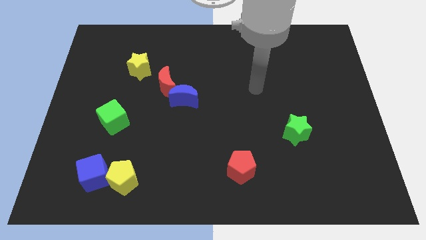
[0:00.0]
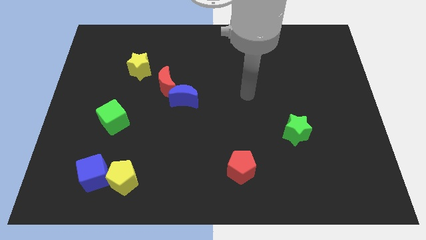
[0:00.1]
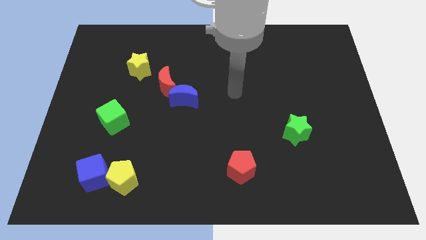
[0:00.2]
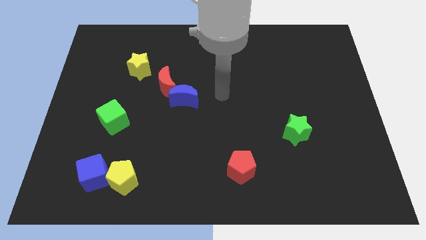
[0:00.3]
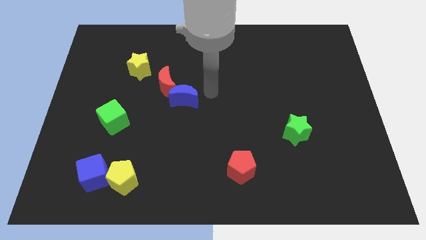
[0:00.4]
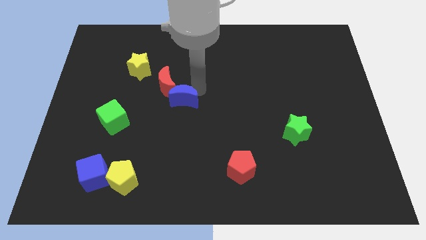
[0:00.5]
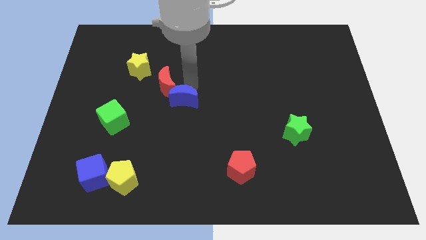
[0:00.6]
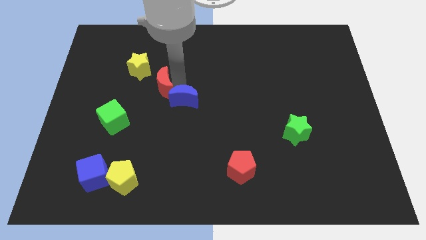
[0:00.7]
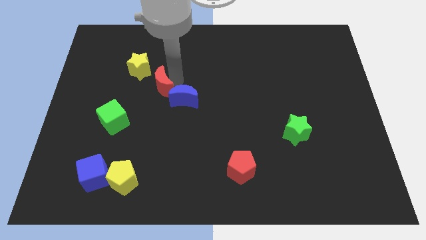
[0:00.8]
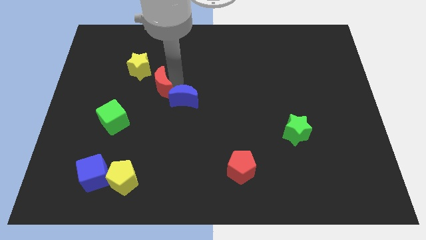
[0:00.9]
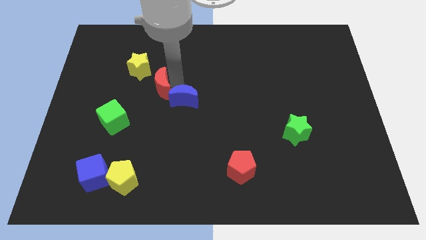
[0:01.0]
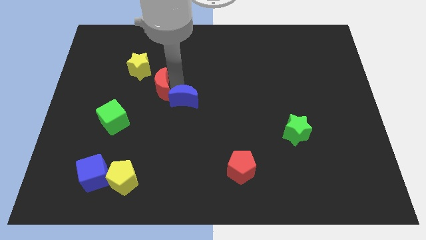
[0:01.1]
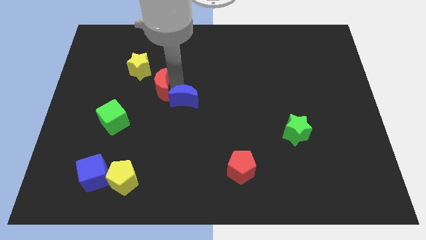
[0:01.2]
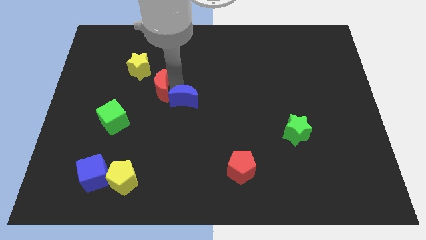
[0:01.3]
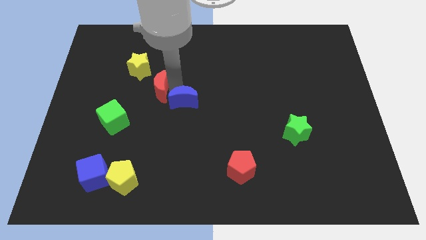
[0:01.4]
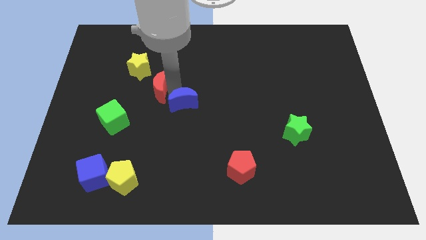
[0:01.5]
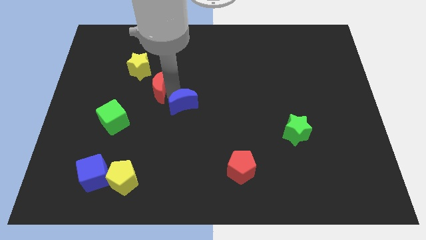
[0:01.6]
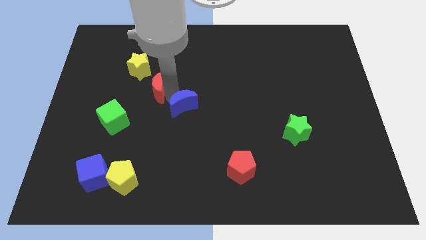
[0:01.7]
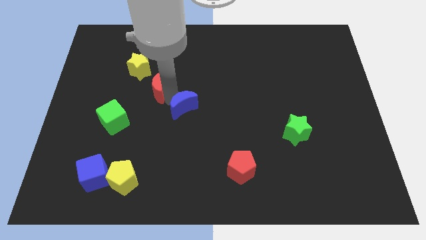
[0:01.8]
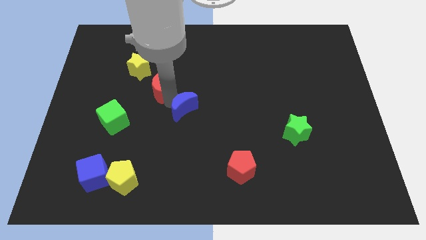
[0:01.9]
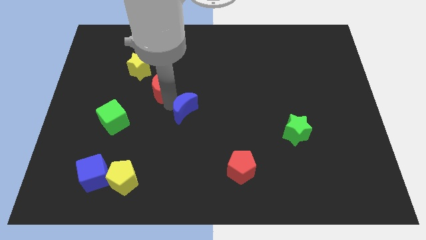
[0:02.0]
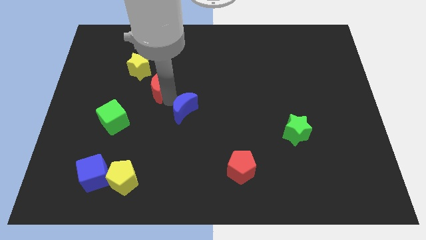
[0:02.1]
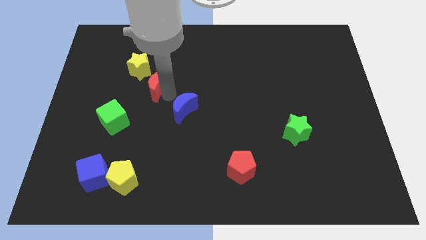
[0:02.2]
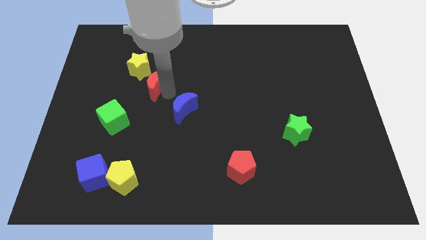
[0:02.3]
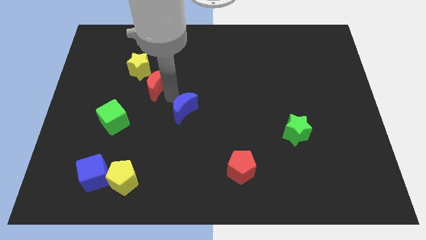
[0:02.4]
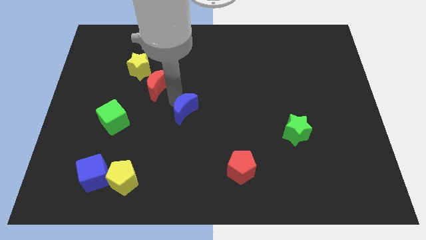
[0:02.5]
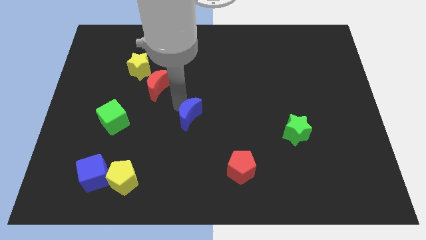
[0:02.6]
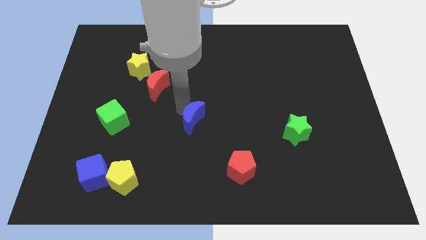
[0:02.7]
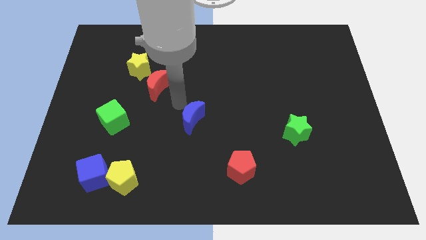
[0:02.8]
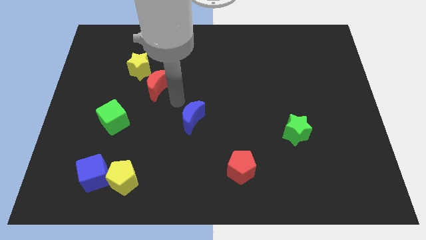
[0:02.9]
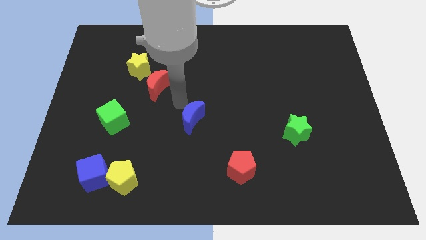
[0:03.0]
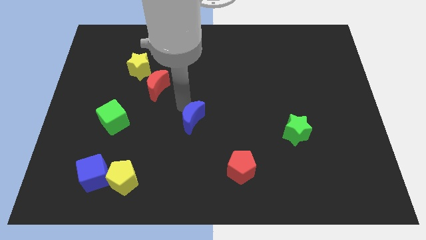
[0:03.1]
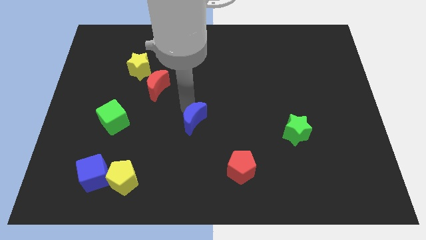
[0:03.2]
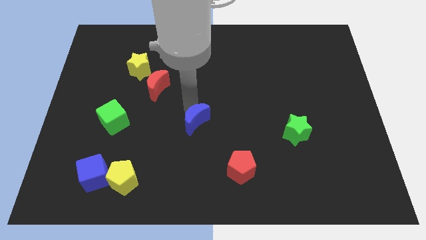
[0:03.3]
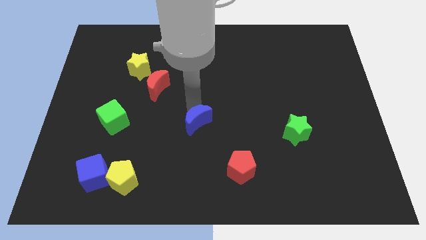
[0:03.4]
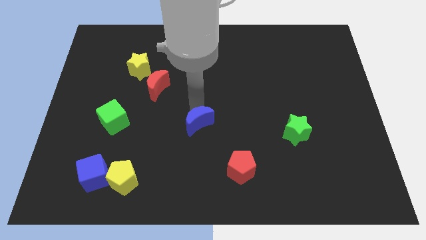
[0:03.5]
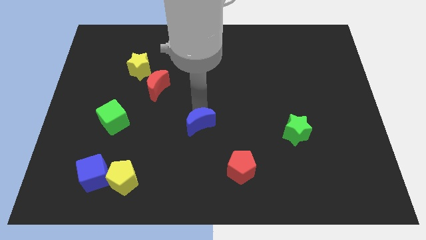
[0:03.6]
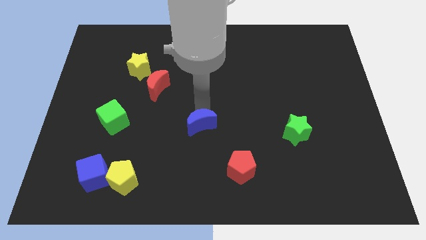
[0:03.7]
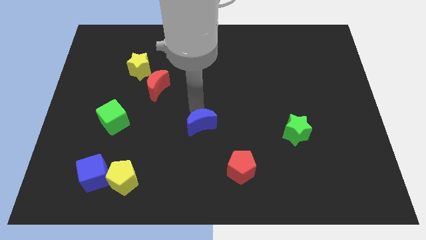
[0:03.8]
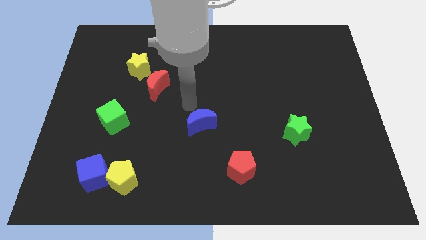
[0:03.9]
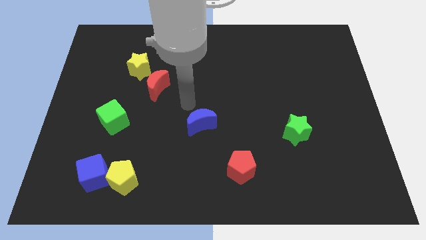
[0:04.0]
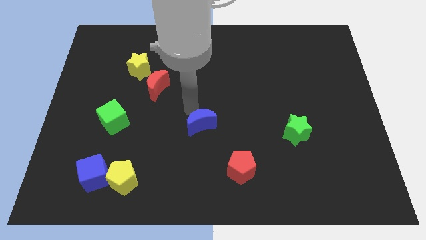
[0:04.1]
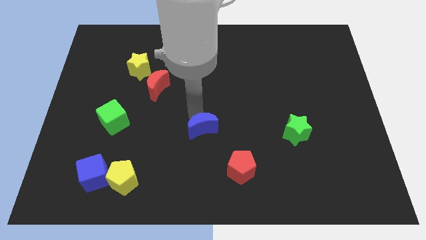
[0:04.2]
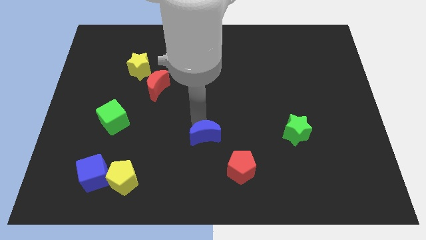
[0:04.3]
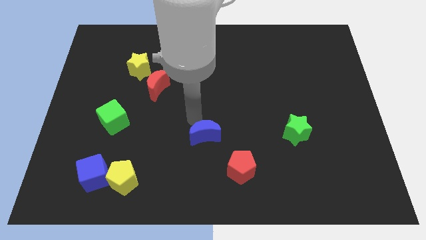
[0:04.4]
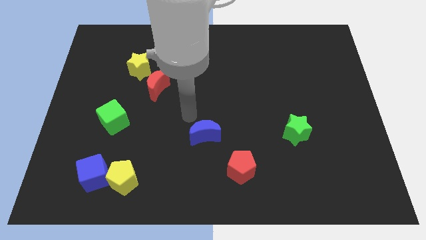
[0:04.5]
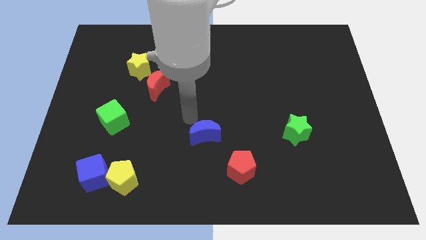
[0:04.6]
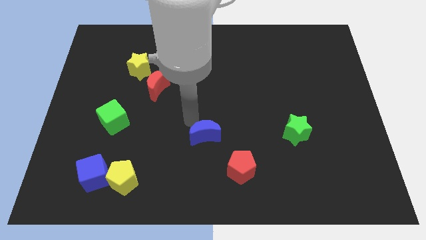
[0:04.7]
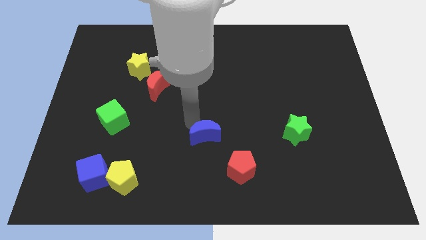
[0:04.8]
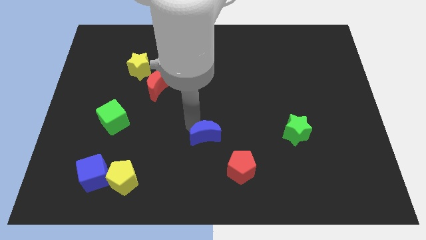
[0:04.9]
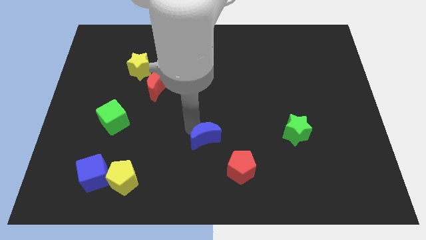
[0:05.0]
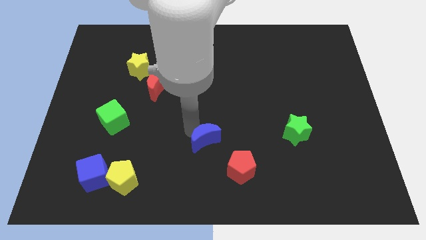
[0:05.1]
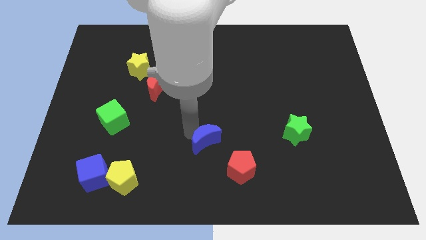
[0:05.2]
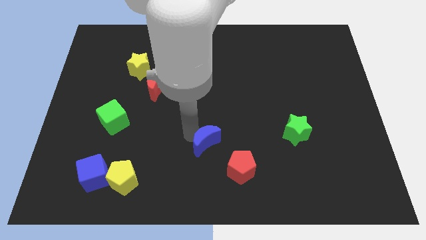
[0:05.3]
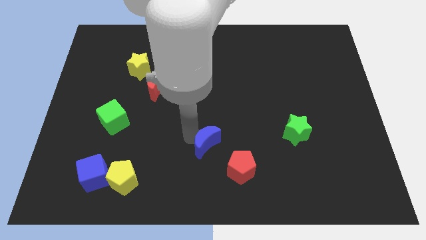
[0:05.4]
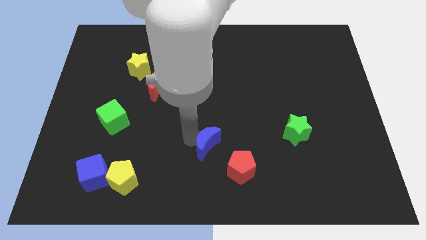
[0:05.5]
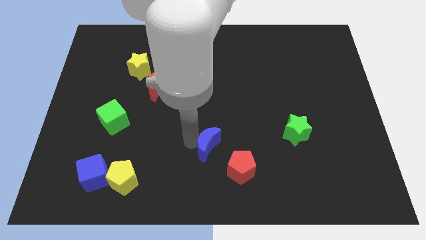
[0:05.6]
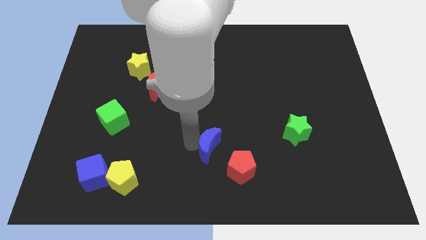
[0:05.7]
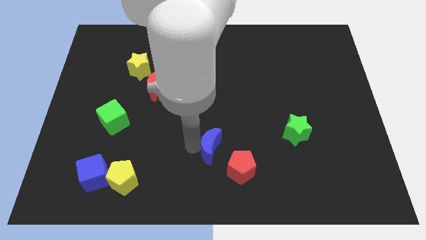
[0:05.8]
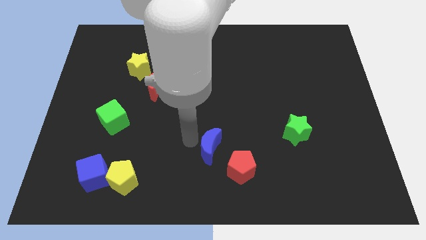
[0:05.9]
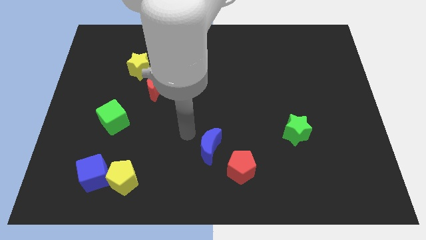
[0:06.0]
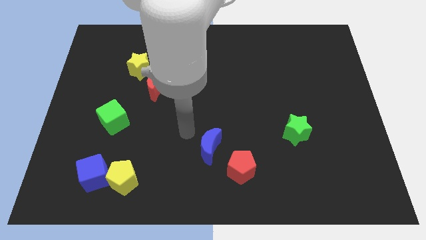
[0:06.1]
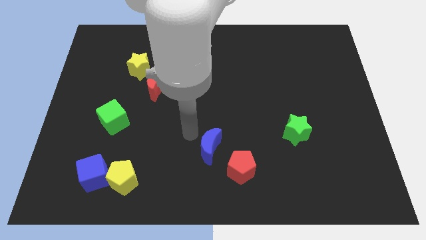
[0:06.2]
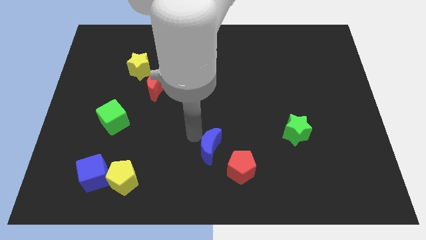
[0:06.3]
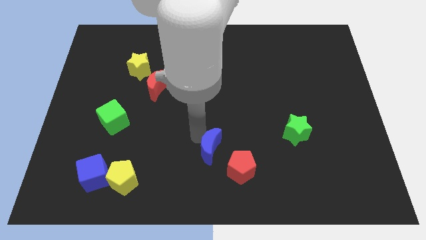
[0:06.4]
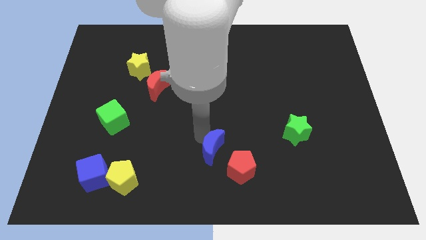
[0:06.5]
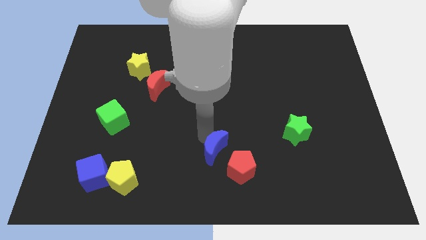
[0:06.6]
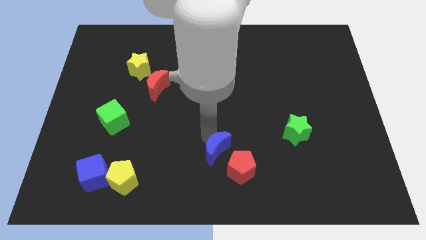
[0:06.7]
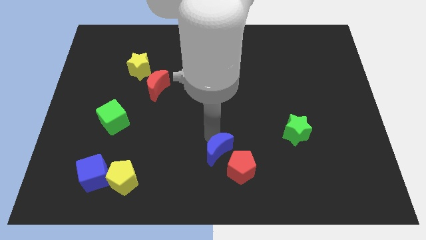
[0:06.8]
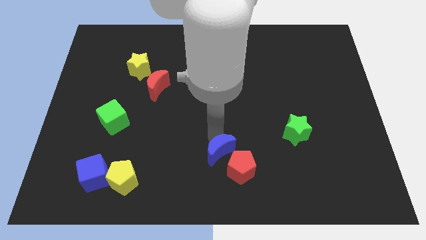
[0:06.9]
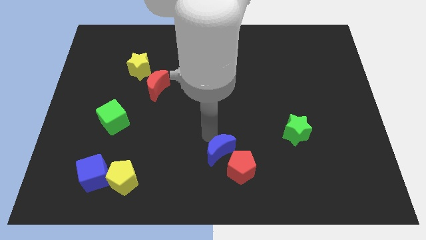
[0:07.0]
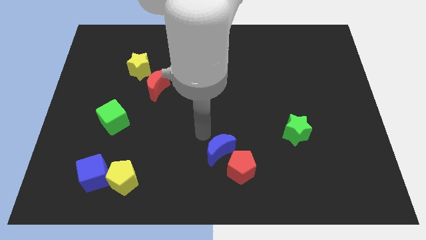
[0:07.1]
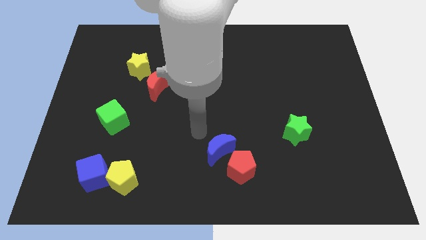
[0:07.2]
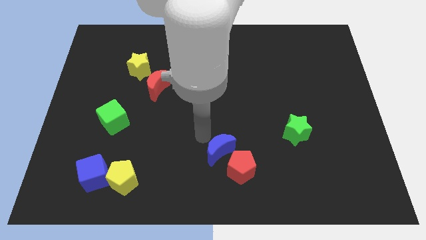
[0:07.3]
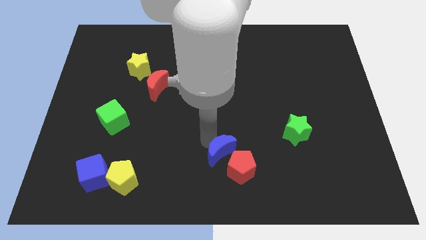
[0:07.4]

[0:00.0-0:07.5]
put the blue moon next to the red pentagon
